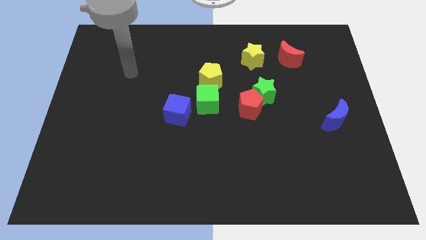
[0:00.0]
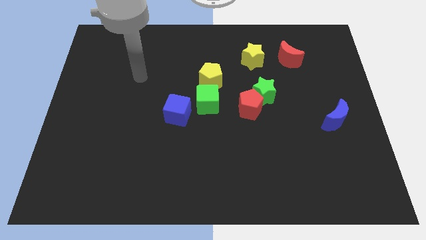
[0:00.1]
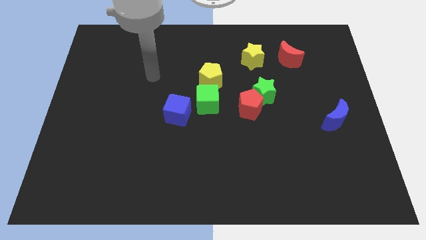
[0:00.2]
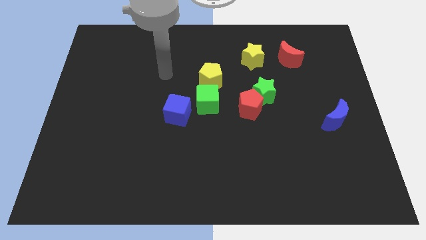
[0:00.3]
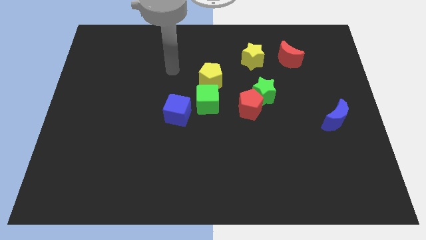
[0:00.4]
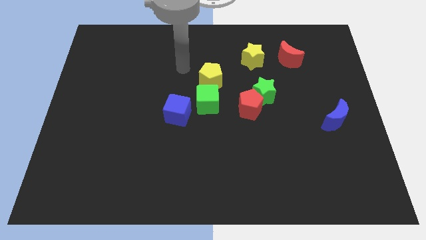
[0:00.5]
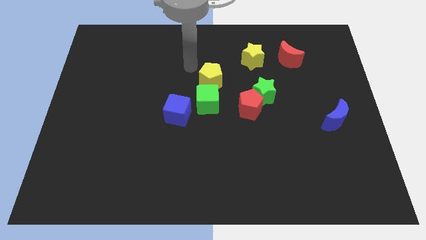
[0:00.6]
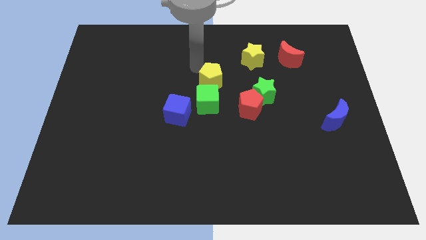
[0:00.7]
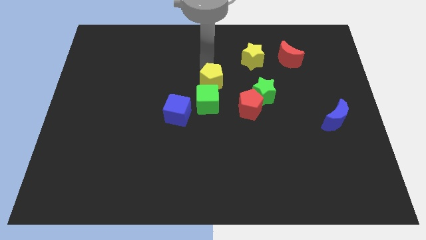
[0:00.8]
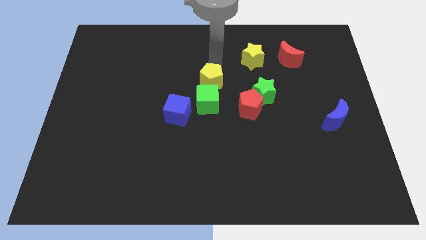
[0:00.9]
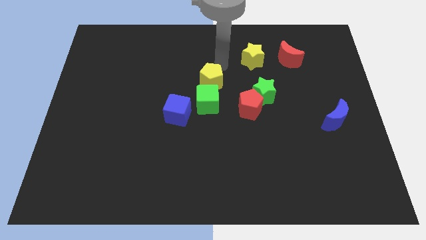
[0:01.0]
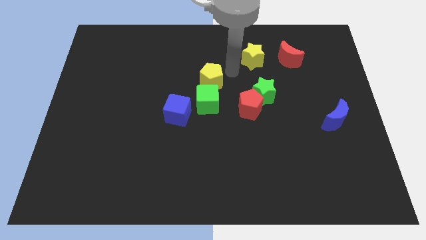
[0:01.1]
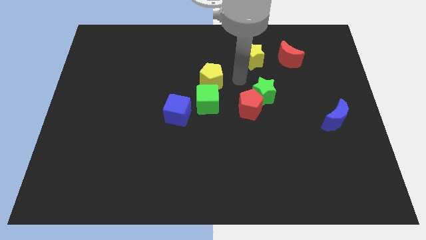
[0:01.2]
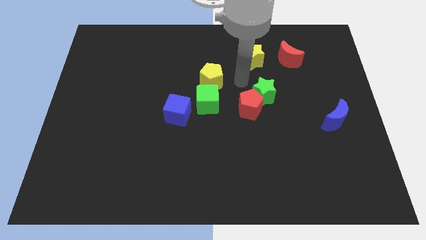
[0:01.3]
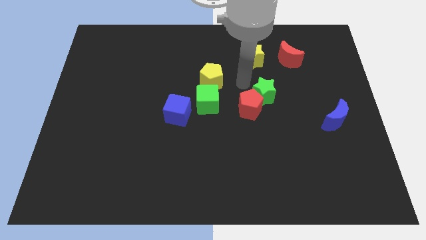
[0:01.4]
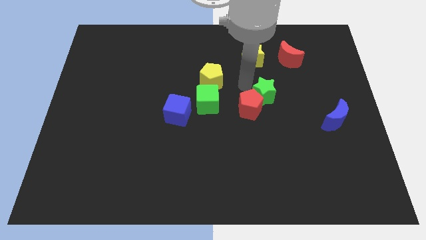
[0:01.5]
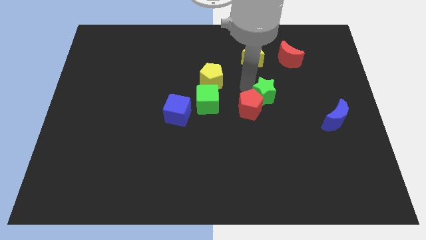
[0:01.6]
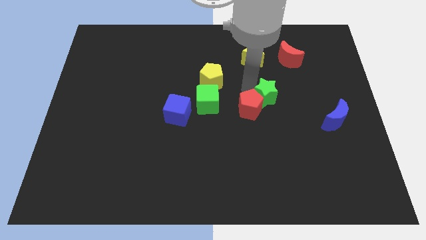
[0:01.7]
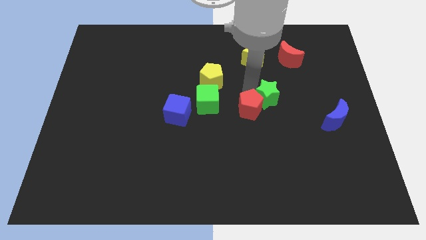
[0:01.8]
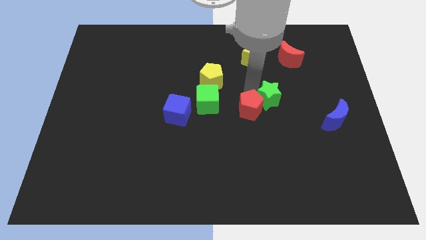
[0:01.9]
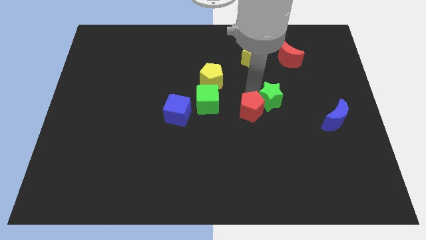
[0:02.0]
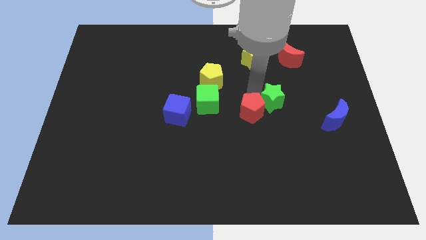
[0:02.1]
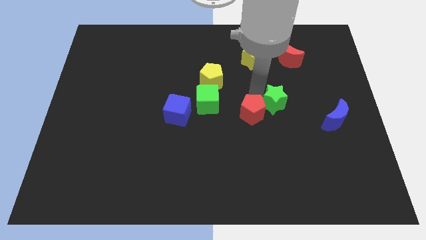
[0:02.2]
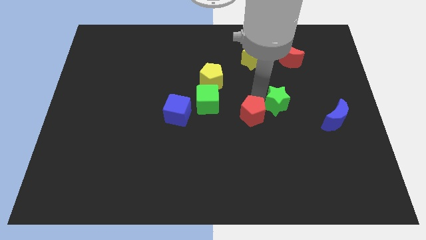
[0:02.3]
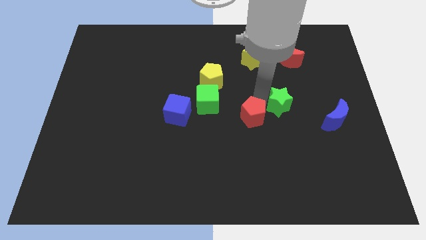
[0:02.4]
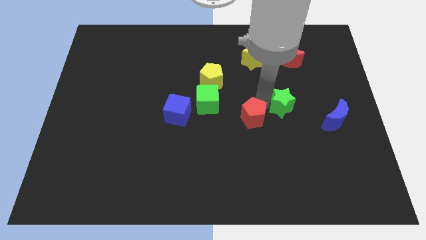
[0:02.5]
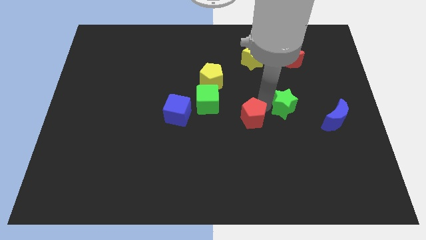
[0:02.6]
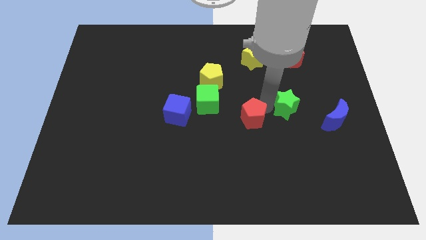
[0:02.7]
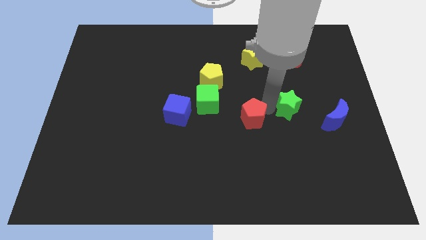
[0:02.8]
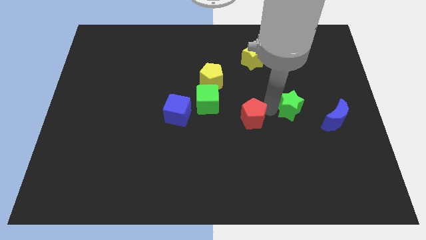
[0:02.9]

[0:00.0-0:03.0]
slightly move the green star down and to the right

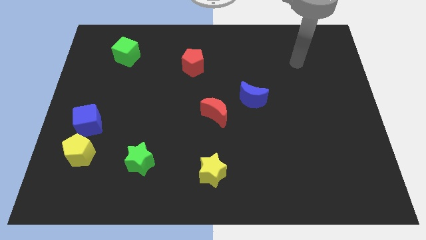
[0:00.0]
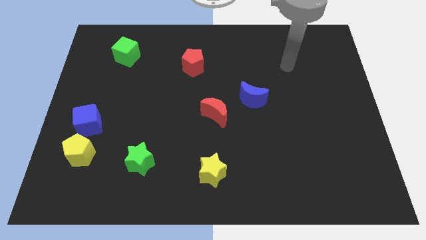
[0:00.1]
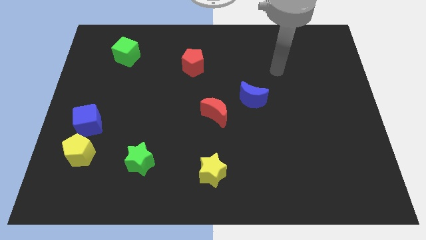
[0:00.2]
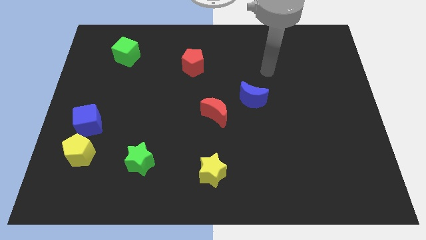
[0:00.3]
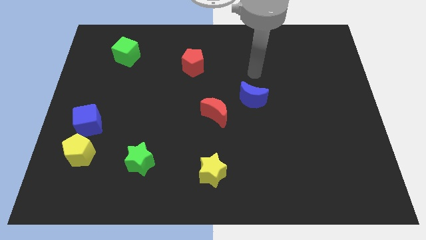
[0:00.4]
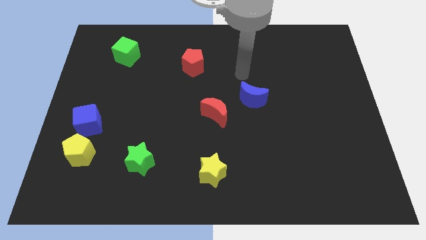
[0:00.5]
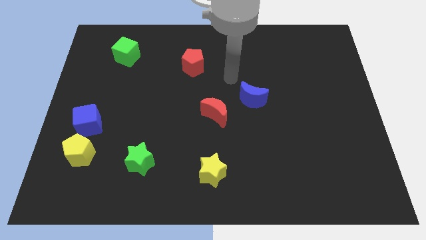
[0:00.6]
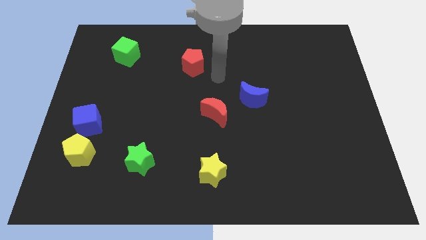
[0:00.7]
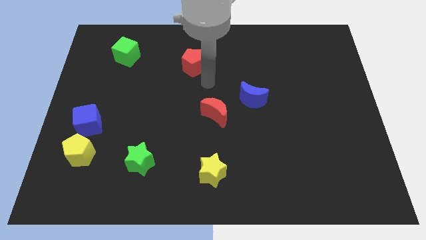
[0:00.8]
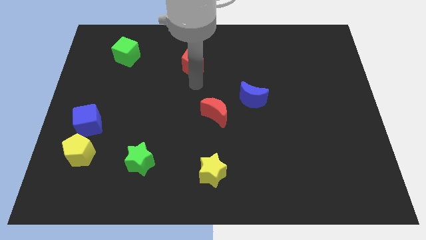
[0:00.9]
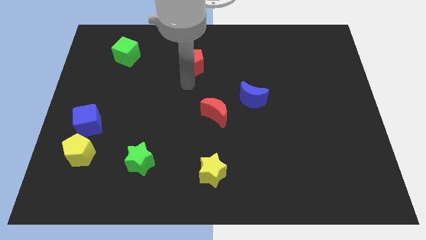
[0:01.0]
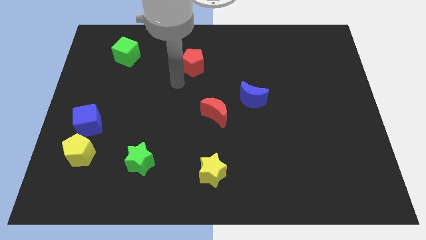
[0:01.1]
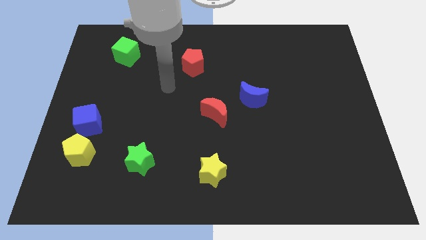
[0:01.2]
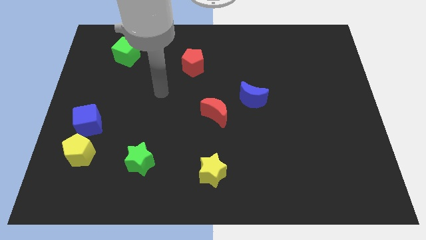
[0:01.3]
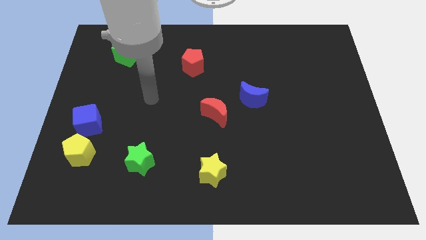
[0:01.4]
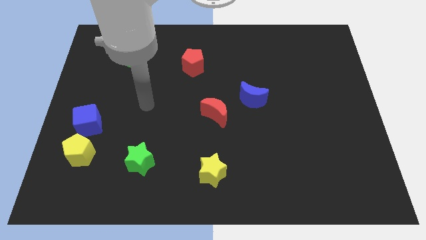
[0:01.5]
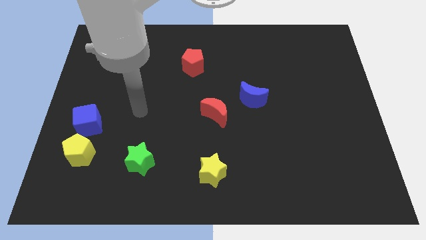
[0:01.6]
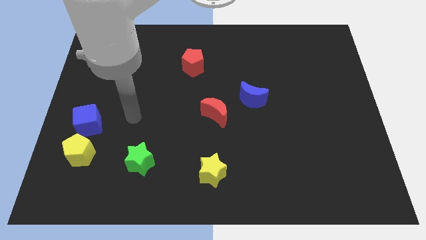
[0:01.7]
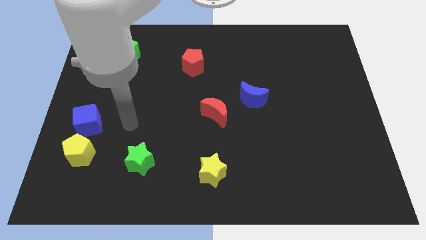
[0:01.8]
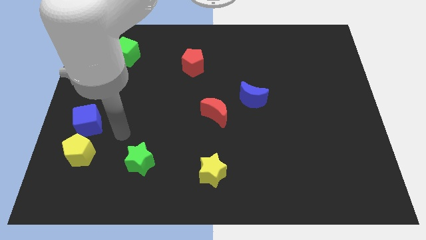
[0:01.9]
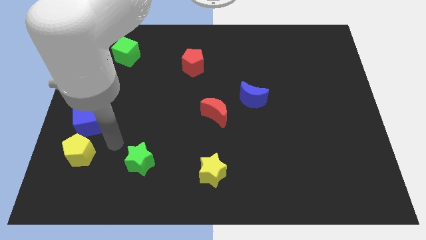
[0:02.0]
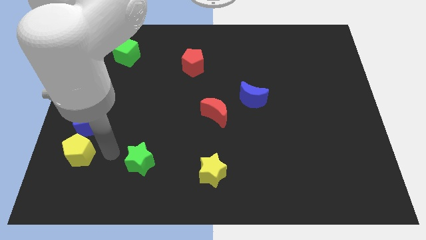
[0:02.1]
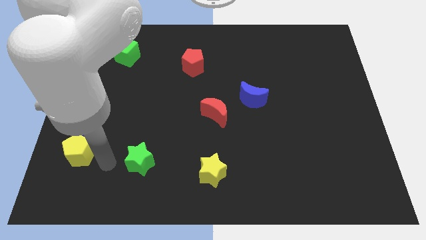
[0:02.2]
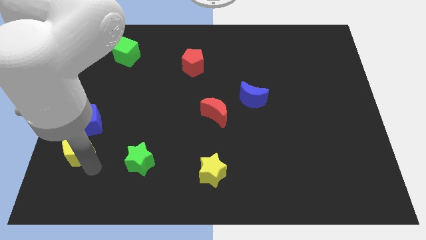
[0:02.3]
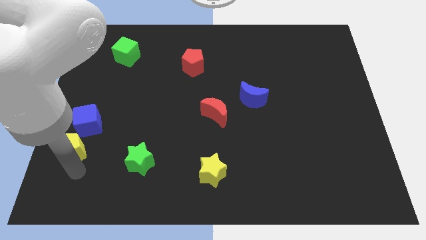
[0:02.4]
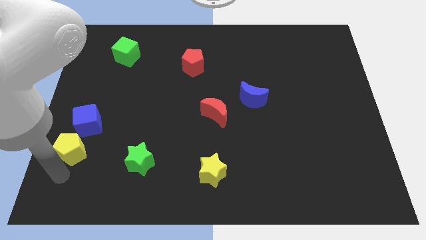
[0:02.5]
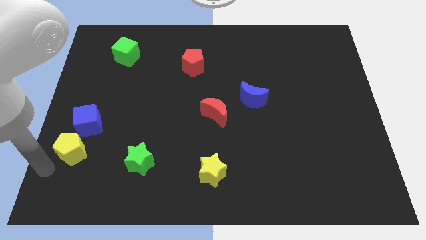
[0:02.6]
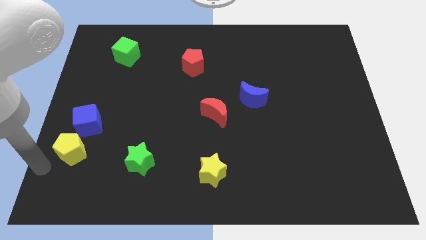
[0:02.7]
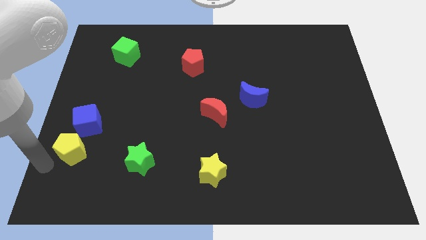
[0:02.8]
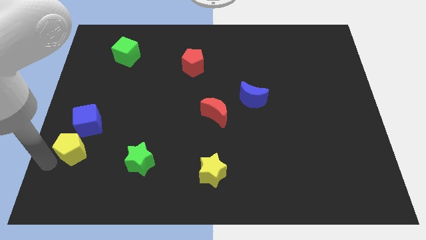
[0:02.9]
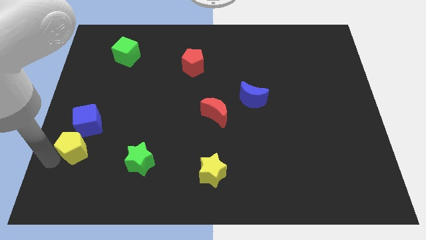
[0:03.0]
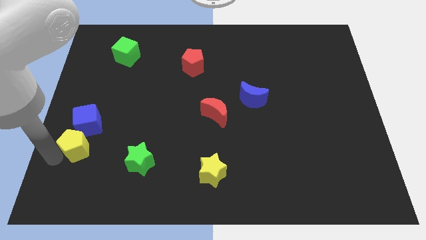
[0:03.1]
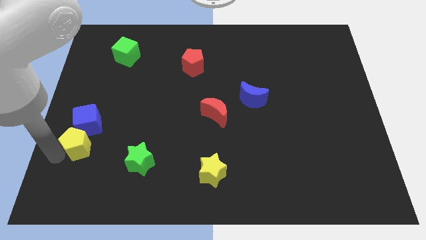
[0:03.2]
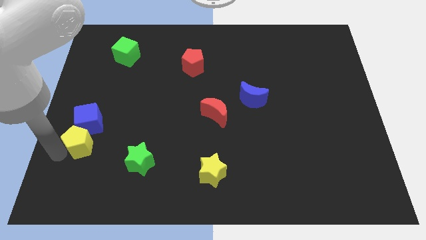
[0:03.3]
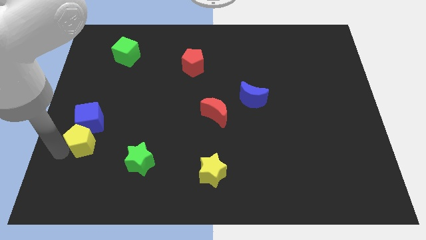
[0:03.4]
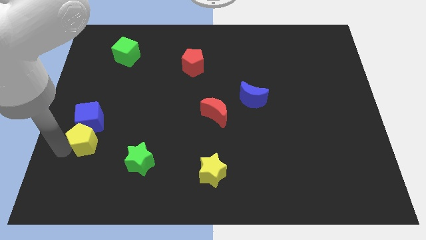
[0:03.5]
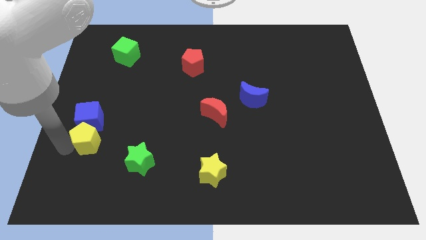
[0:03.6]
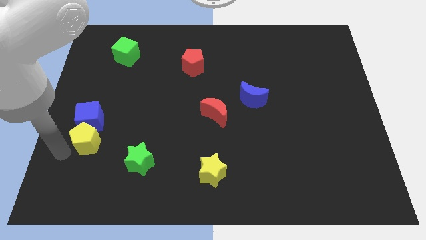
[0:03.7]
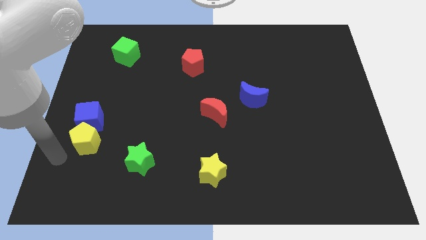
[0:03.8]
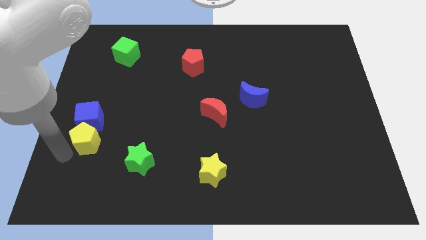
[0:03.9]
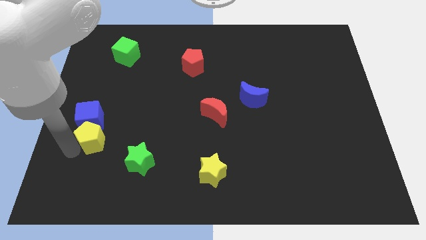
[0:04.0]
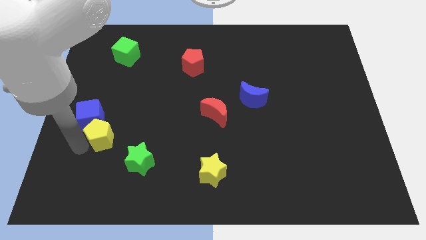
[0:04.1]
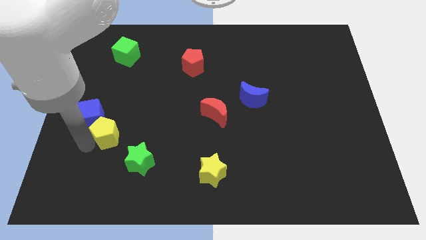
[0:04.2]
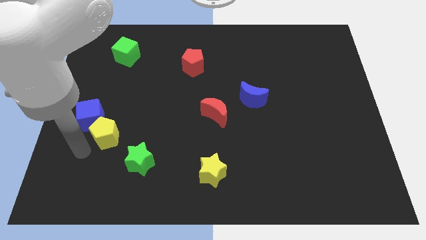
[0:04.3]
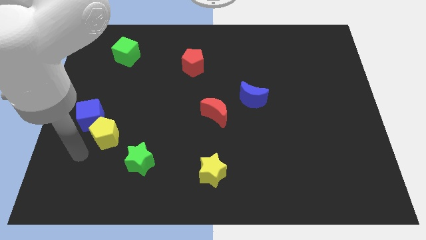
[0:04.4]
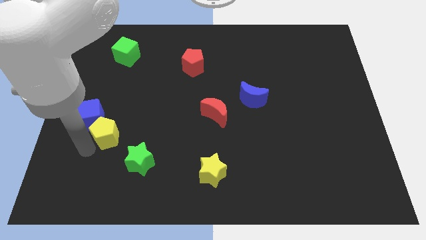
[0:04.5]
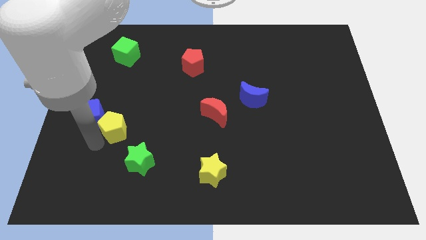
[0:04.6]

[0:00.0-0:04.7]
slightly move the yellow pentagon up and right diagonally

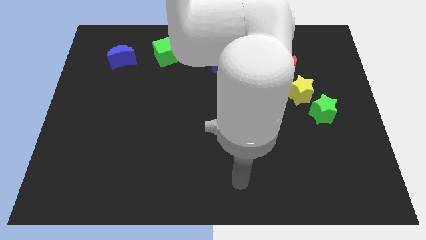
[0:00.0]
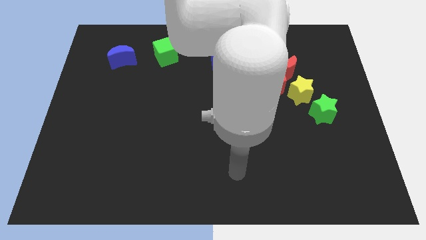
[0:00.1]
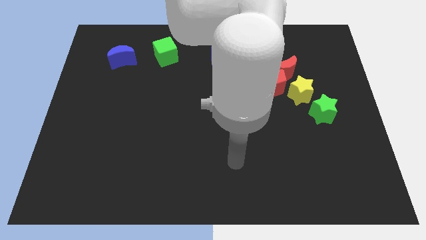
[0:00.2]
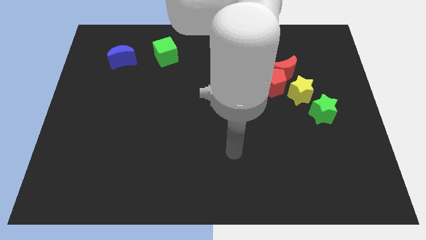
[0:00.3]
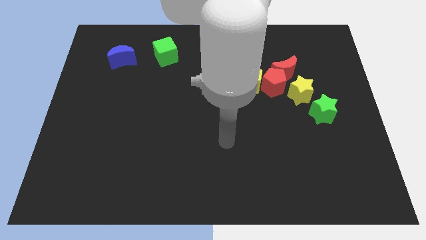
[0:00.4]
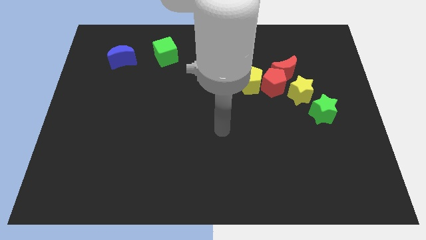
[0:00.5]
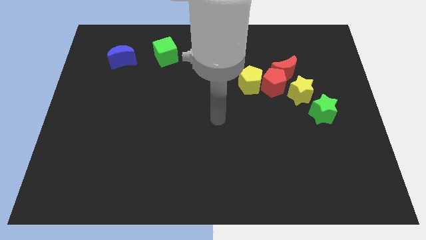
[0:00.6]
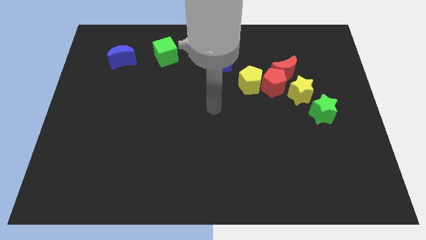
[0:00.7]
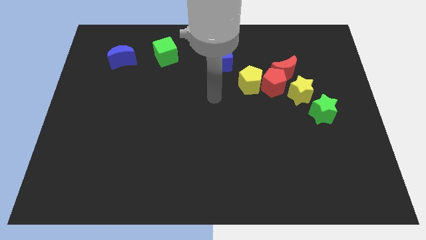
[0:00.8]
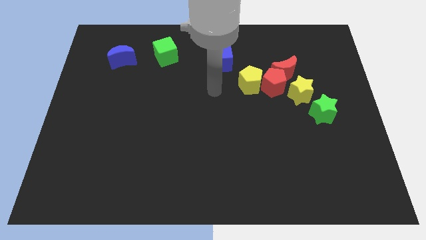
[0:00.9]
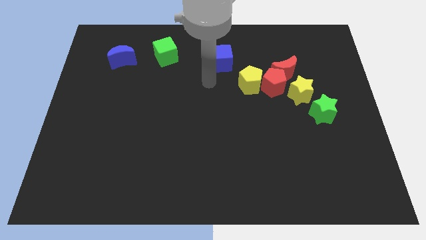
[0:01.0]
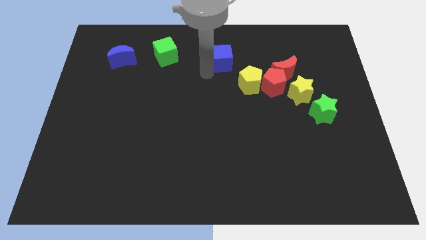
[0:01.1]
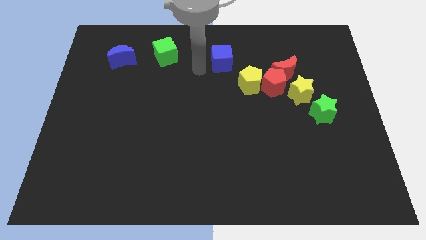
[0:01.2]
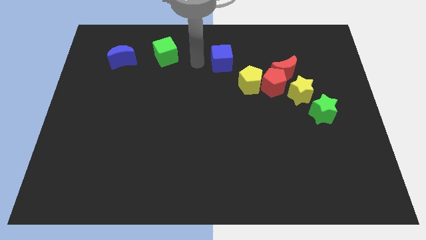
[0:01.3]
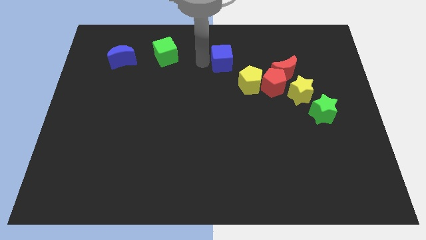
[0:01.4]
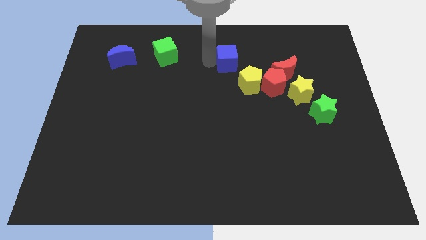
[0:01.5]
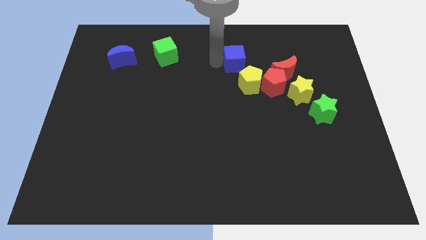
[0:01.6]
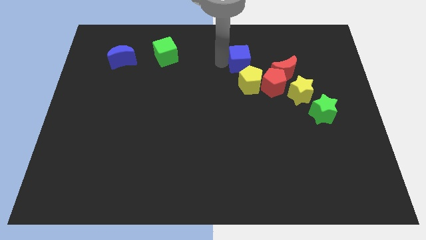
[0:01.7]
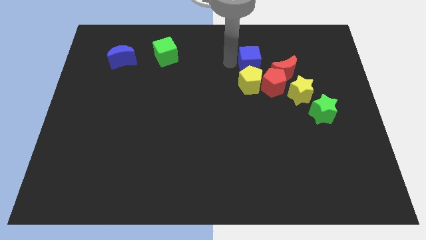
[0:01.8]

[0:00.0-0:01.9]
slide the blue cube to the right a little bit
